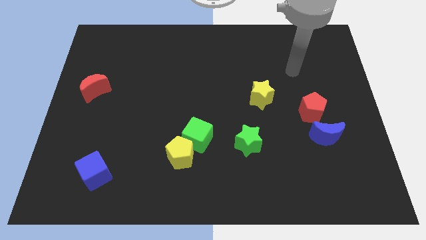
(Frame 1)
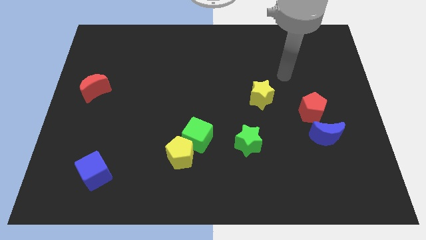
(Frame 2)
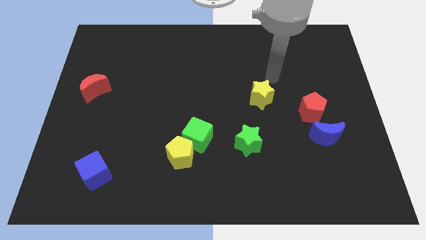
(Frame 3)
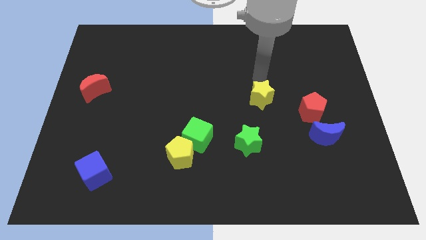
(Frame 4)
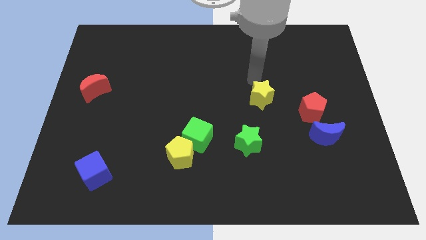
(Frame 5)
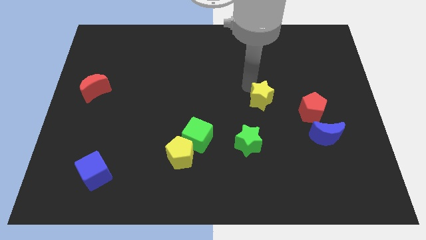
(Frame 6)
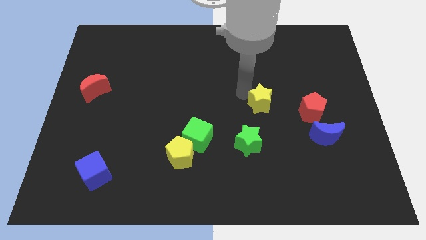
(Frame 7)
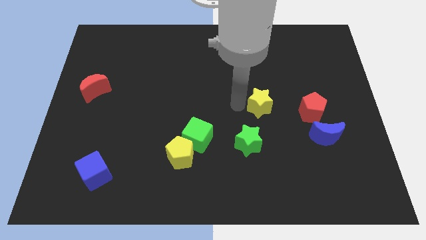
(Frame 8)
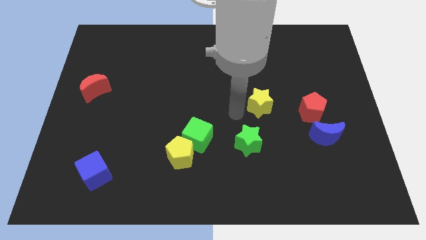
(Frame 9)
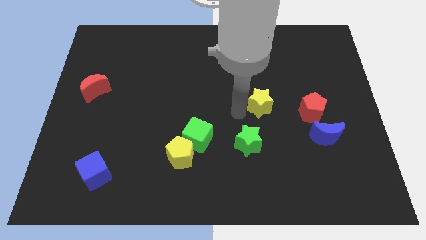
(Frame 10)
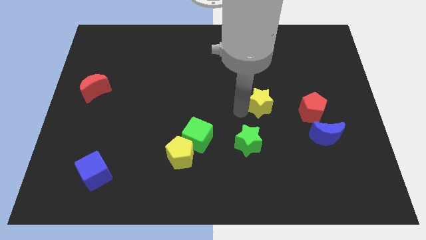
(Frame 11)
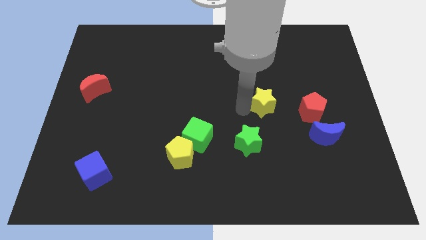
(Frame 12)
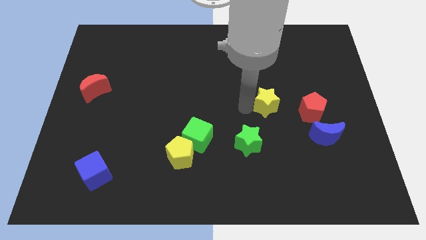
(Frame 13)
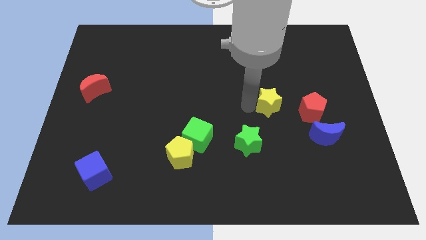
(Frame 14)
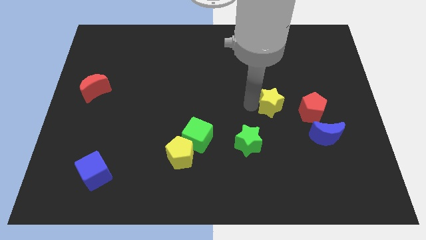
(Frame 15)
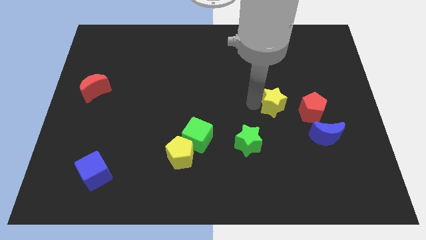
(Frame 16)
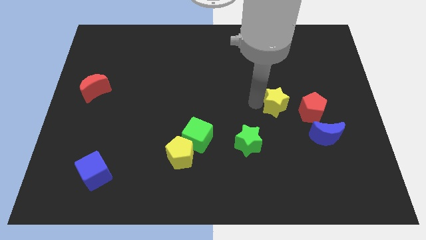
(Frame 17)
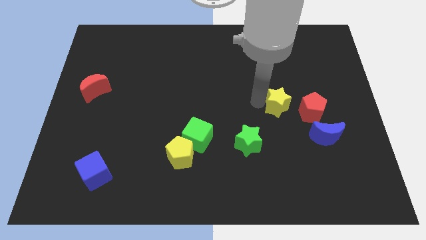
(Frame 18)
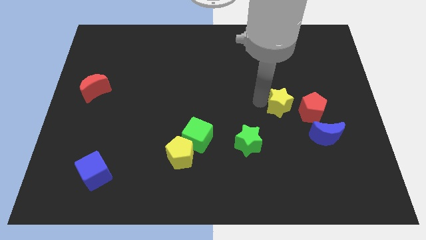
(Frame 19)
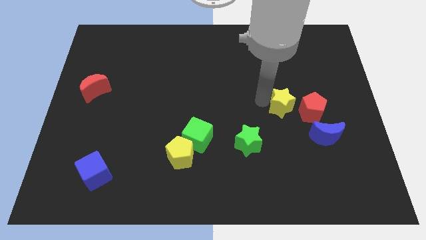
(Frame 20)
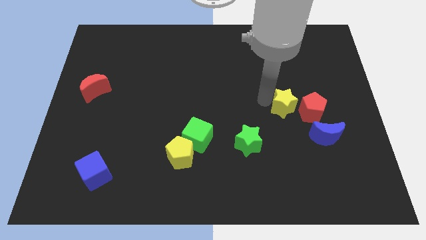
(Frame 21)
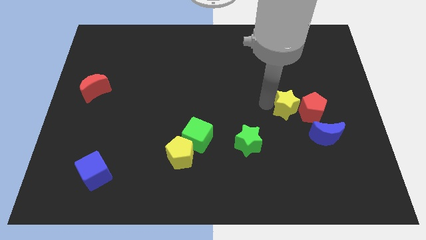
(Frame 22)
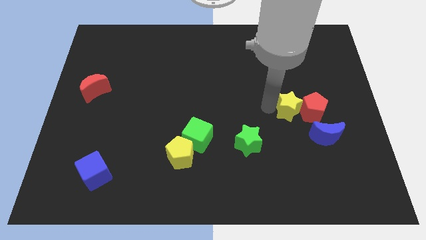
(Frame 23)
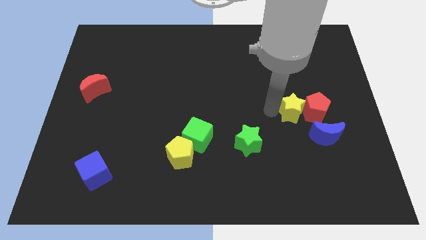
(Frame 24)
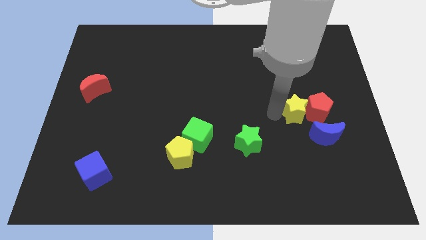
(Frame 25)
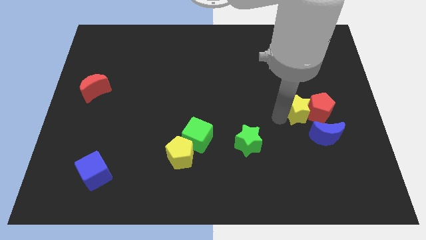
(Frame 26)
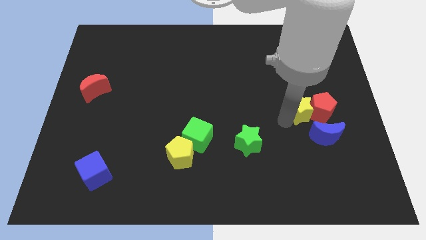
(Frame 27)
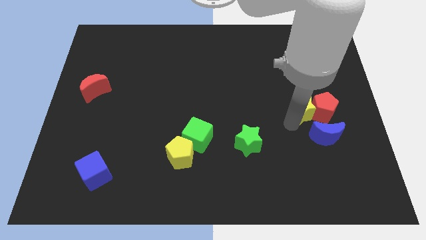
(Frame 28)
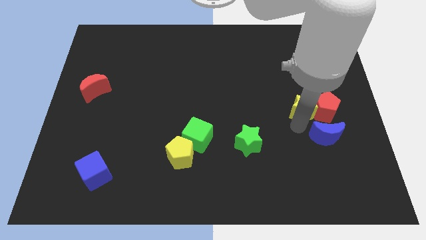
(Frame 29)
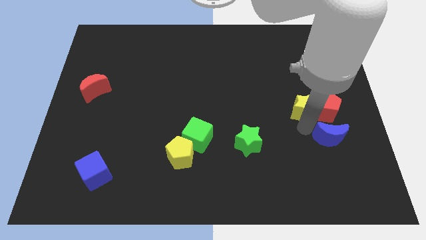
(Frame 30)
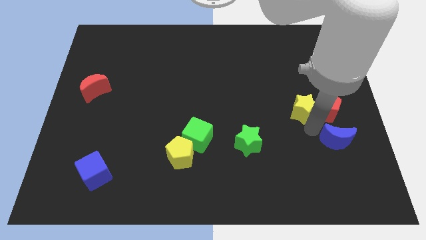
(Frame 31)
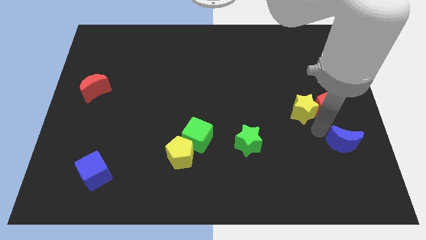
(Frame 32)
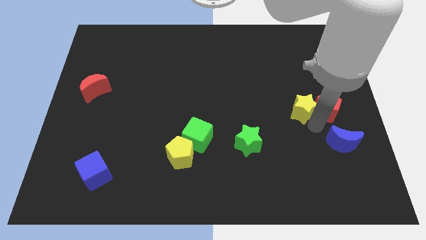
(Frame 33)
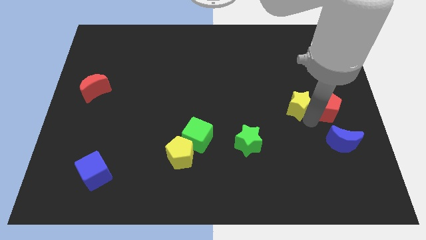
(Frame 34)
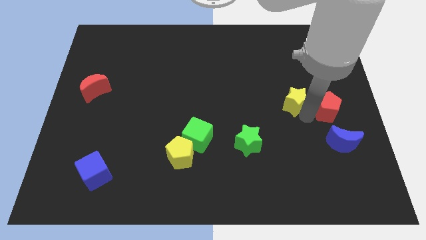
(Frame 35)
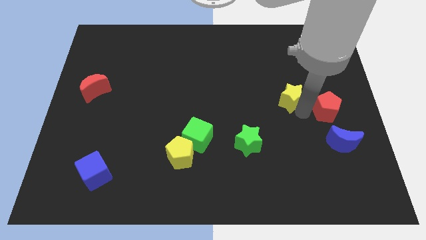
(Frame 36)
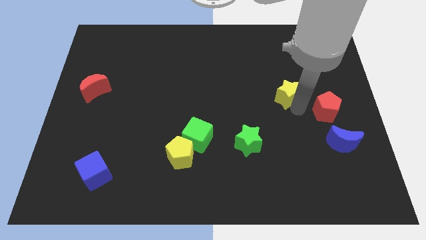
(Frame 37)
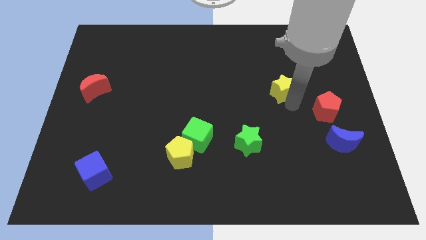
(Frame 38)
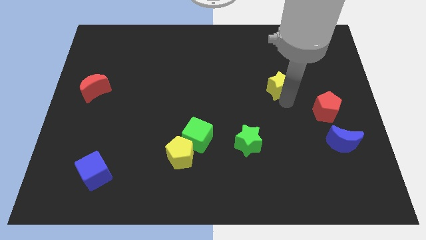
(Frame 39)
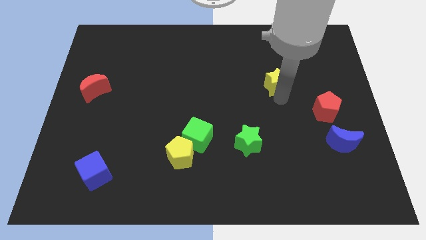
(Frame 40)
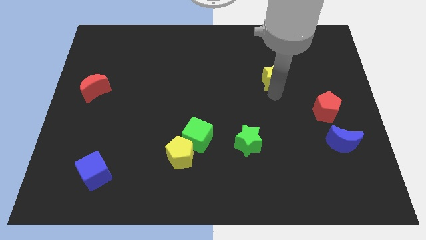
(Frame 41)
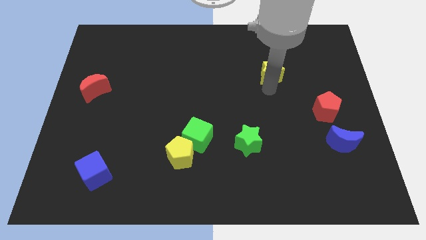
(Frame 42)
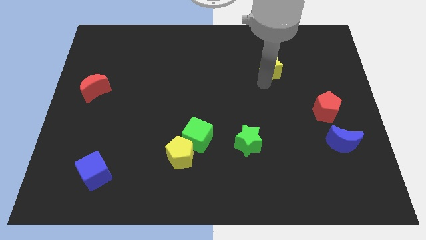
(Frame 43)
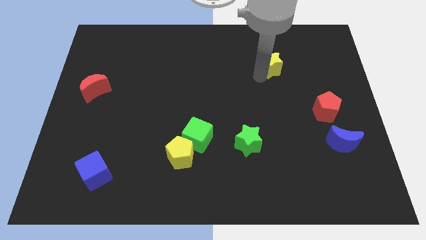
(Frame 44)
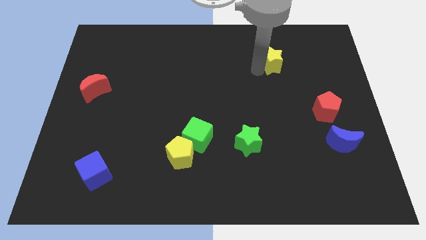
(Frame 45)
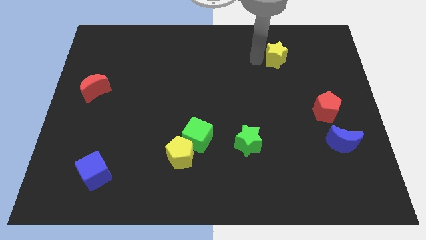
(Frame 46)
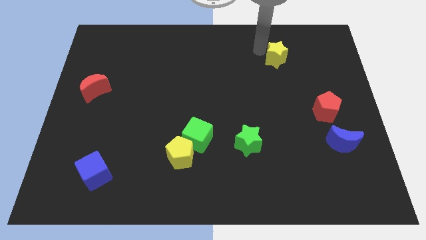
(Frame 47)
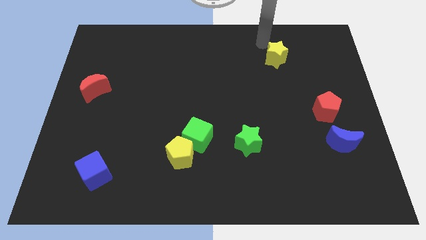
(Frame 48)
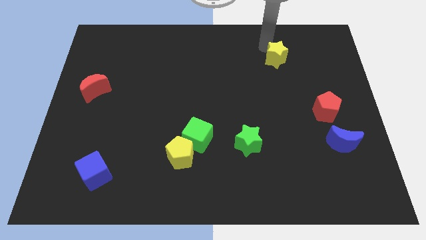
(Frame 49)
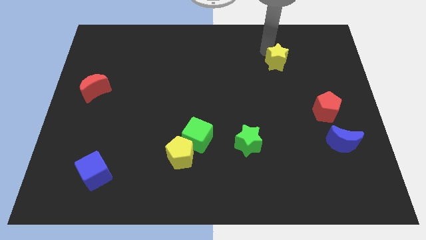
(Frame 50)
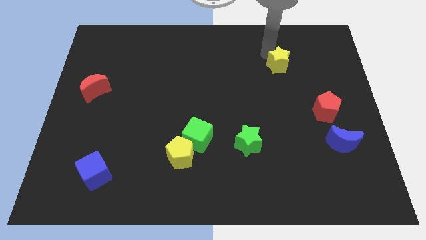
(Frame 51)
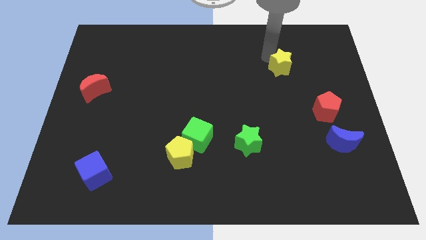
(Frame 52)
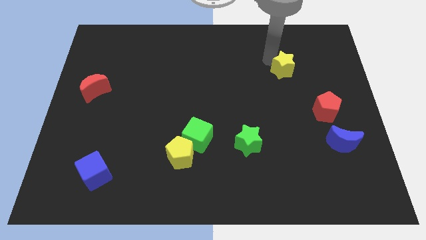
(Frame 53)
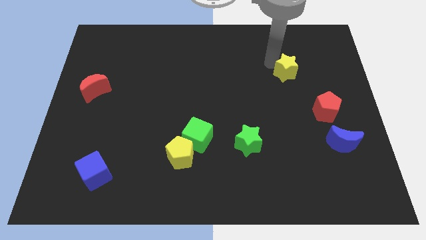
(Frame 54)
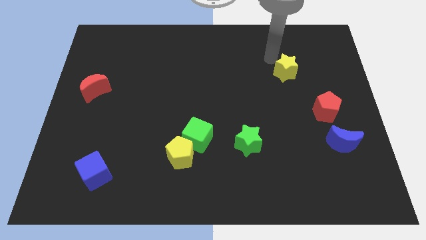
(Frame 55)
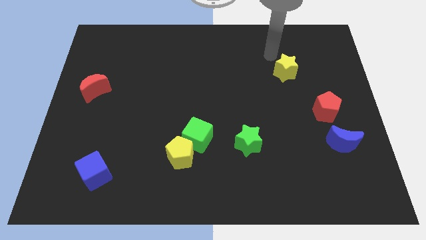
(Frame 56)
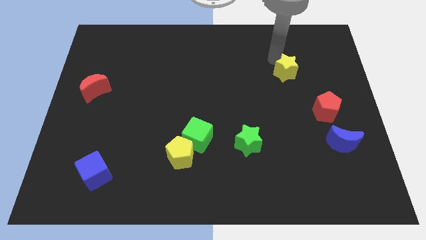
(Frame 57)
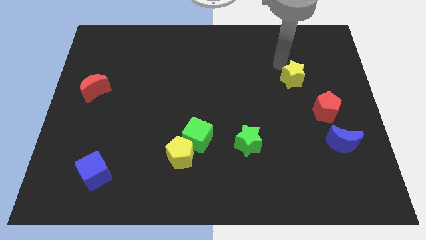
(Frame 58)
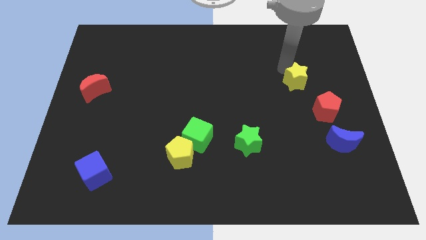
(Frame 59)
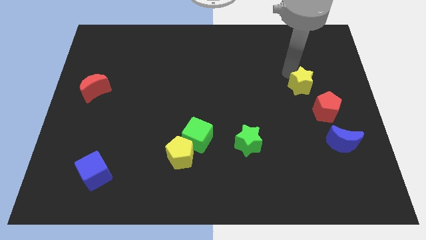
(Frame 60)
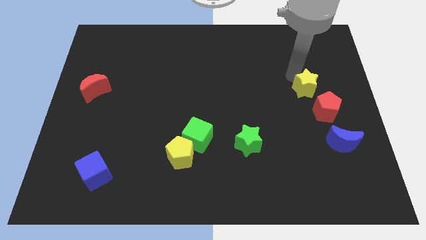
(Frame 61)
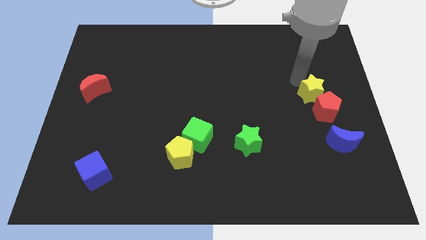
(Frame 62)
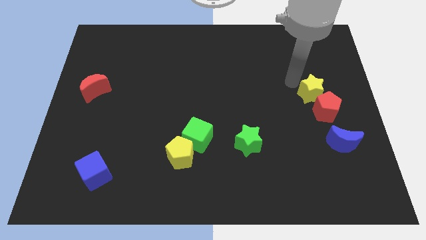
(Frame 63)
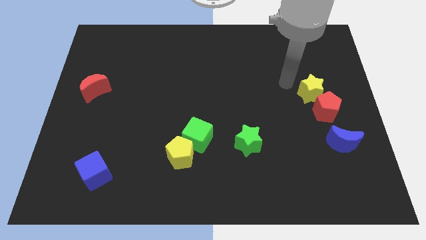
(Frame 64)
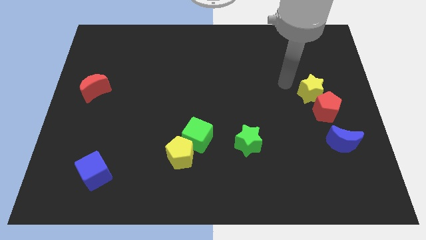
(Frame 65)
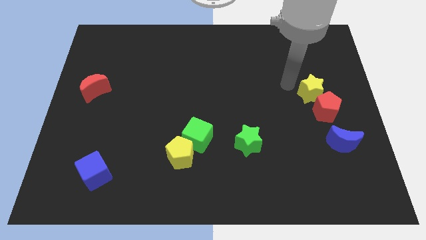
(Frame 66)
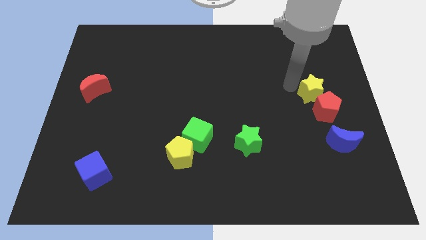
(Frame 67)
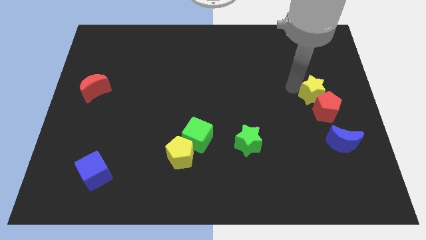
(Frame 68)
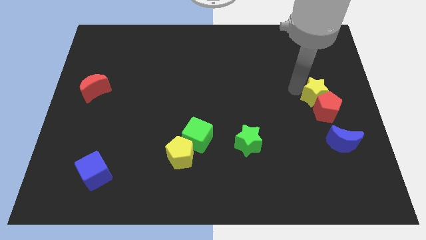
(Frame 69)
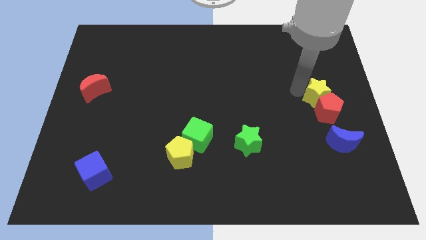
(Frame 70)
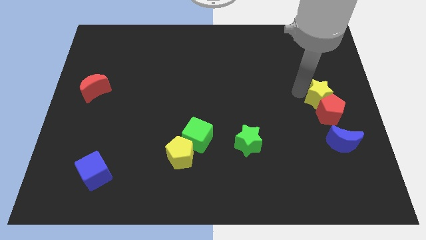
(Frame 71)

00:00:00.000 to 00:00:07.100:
move the yellow star to the right side of the board
